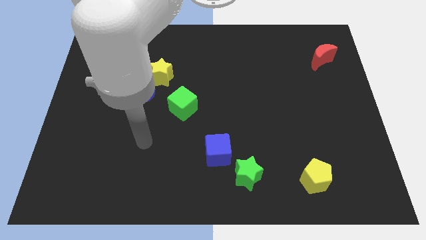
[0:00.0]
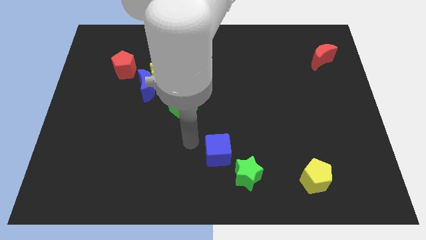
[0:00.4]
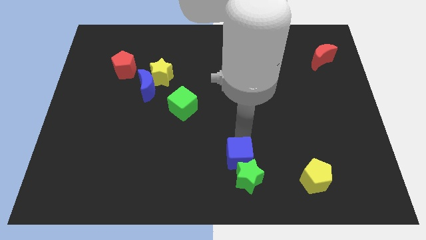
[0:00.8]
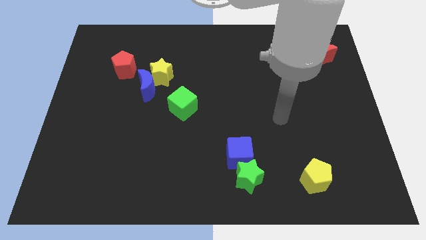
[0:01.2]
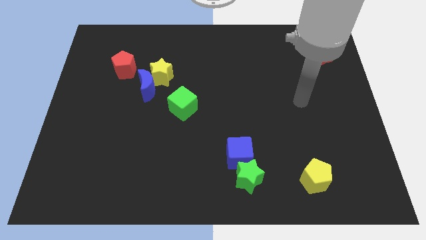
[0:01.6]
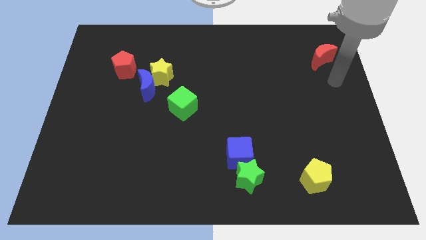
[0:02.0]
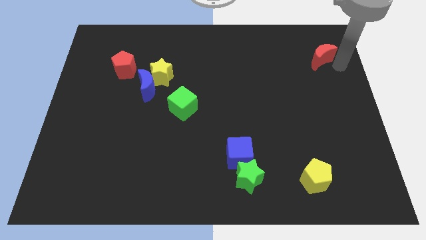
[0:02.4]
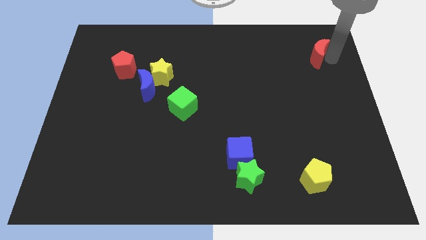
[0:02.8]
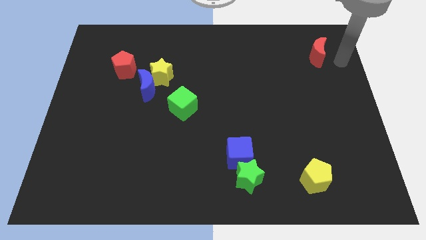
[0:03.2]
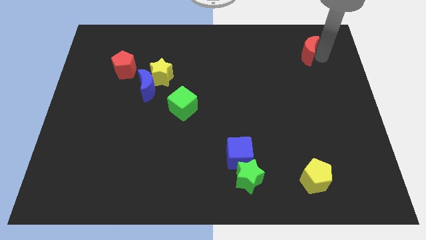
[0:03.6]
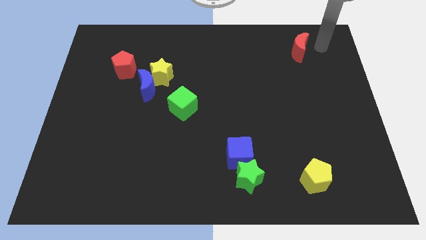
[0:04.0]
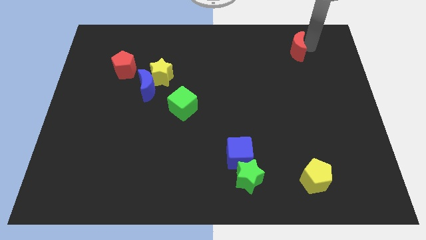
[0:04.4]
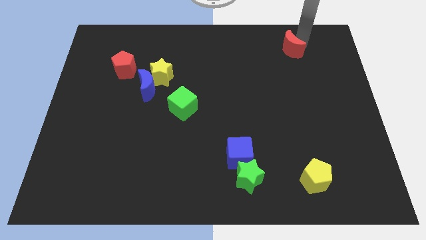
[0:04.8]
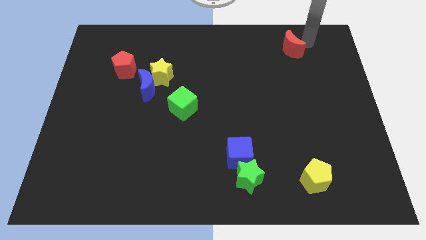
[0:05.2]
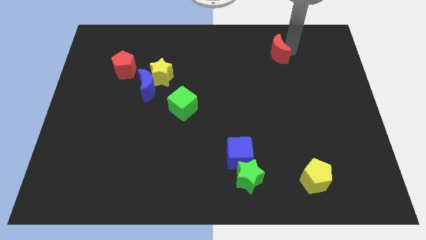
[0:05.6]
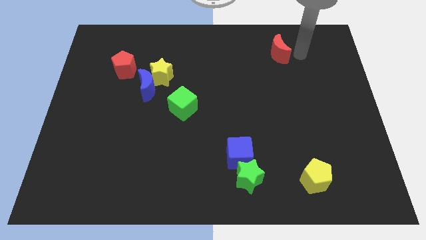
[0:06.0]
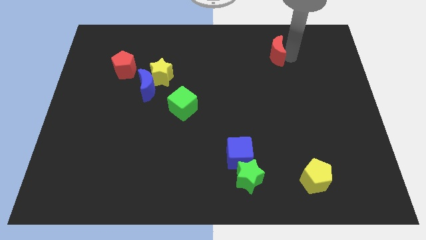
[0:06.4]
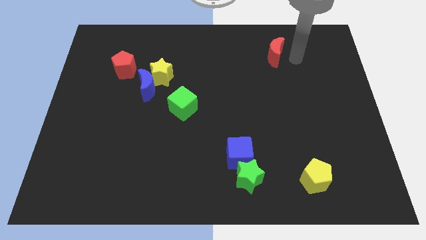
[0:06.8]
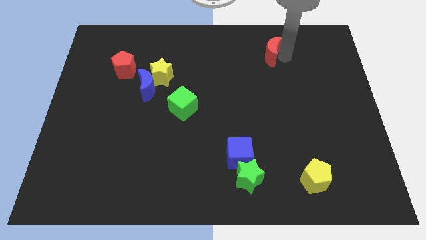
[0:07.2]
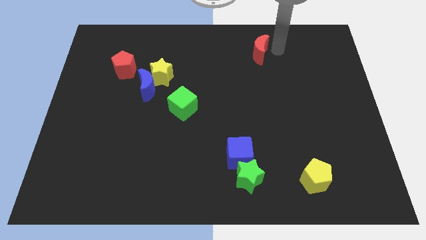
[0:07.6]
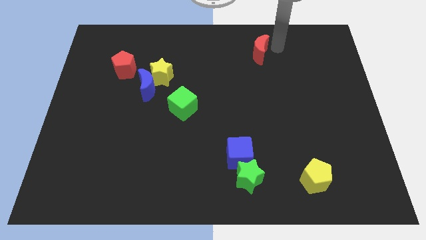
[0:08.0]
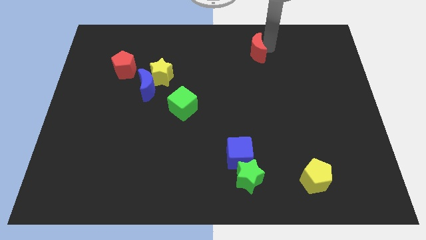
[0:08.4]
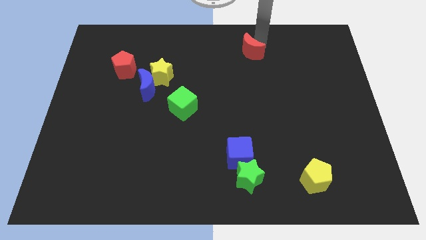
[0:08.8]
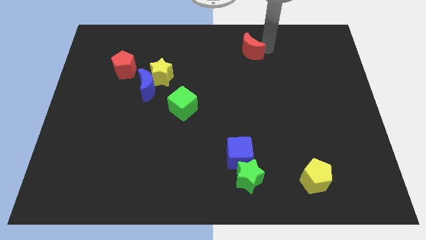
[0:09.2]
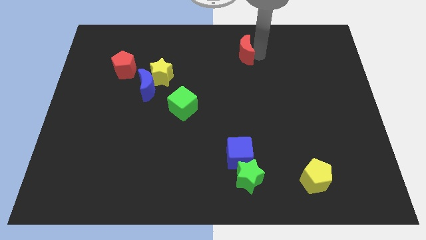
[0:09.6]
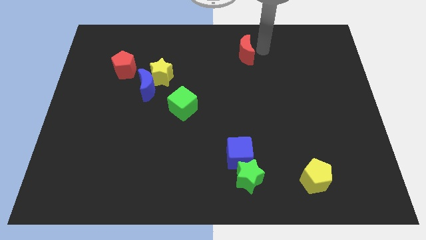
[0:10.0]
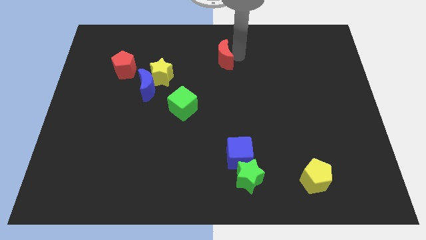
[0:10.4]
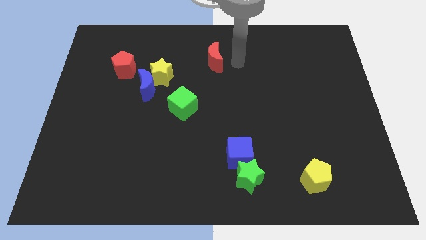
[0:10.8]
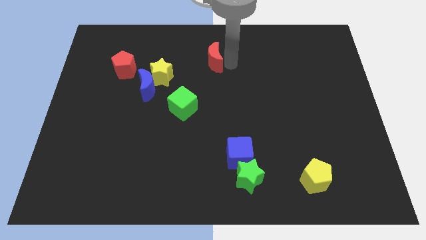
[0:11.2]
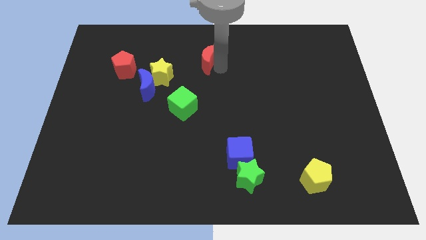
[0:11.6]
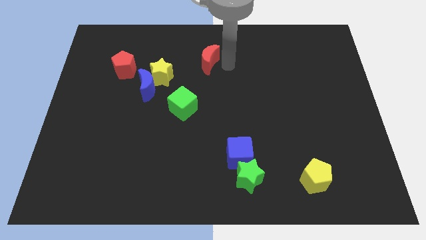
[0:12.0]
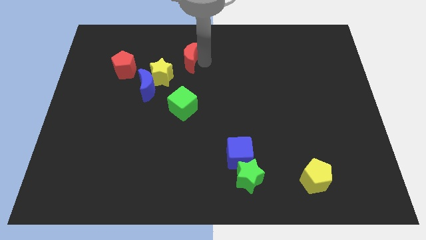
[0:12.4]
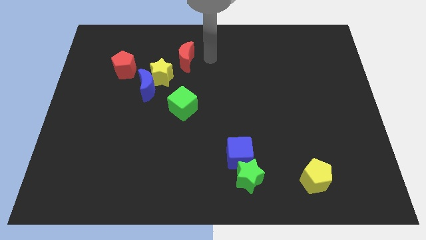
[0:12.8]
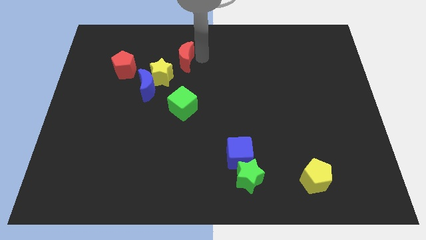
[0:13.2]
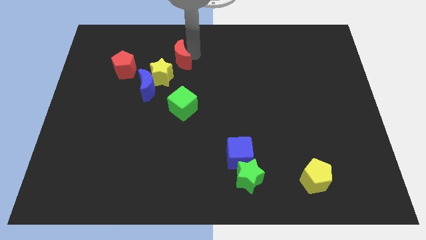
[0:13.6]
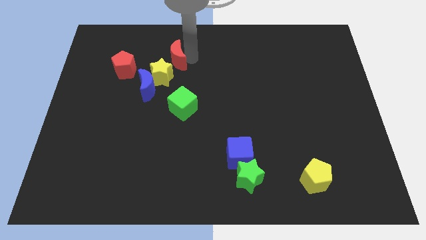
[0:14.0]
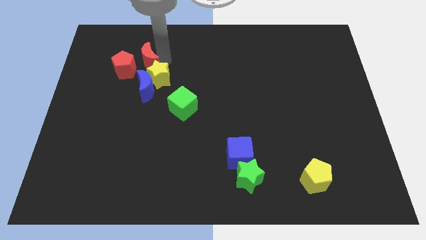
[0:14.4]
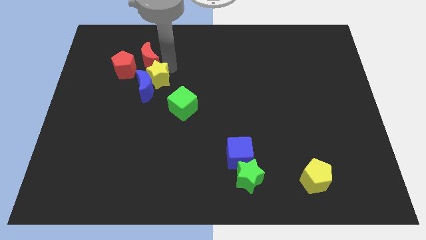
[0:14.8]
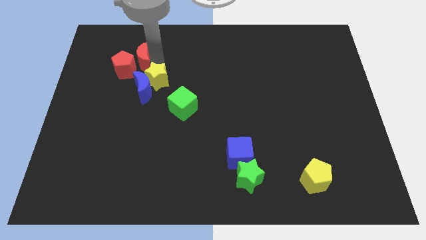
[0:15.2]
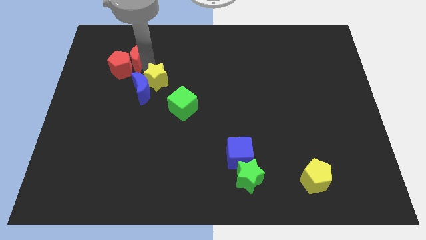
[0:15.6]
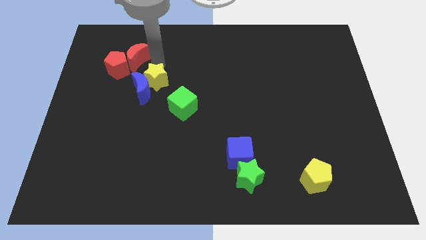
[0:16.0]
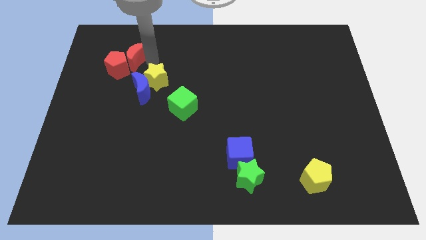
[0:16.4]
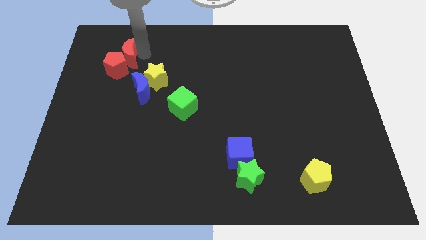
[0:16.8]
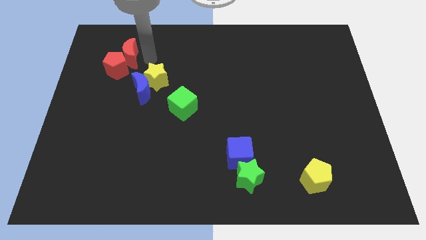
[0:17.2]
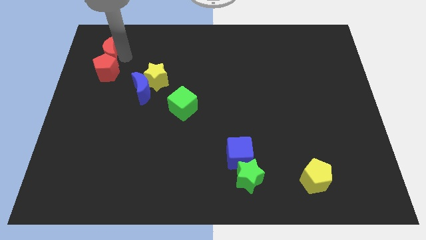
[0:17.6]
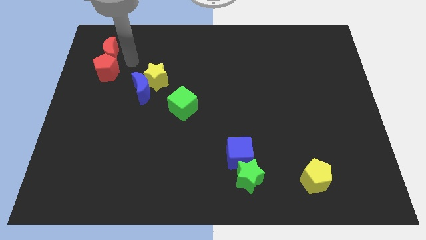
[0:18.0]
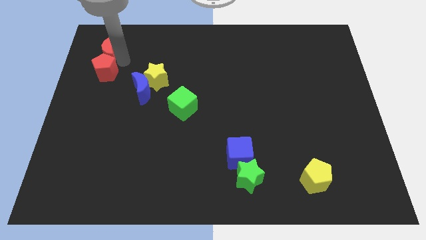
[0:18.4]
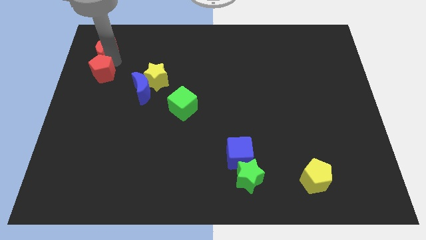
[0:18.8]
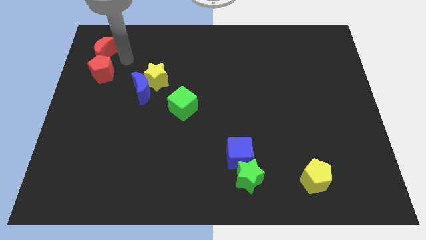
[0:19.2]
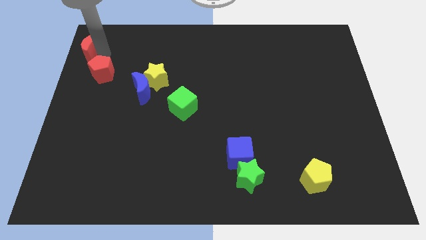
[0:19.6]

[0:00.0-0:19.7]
slide the red moon to the top left of the board

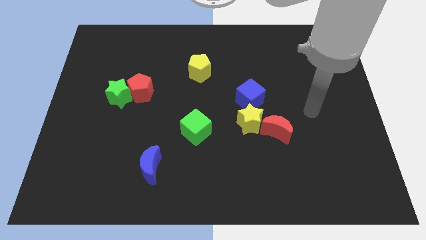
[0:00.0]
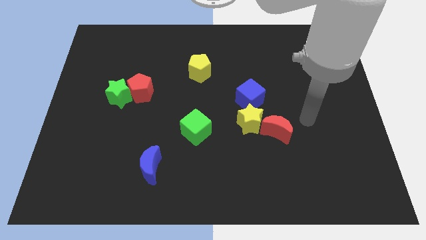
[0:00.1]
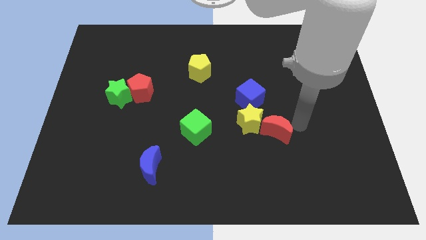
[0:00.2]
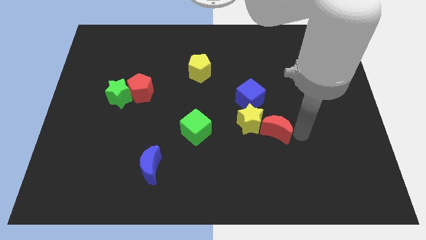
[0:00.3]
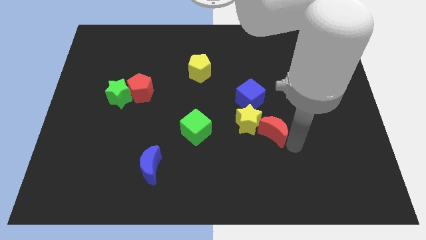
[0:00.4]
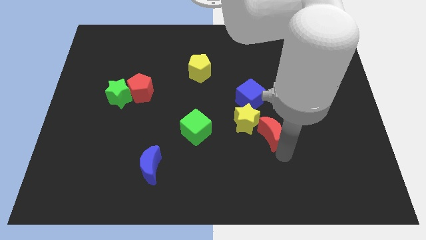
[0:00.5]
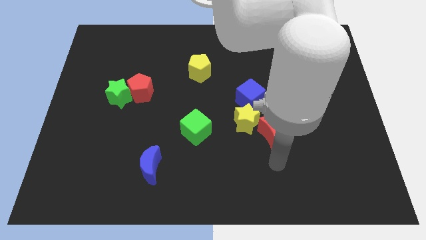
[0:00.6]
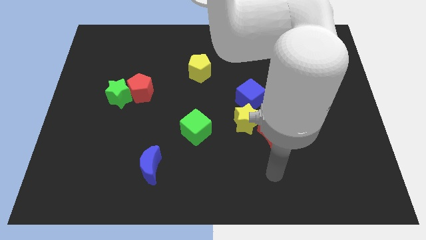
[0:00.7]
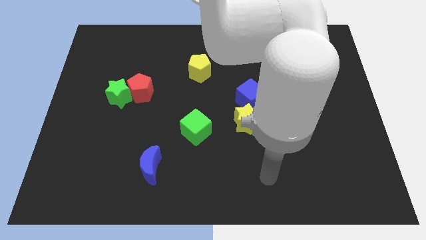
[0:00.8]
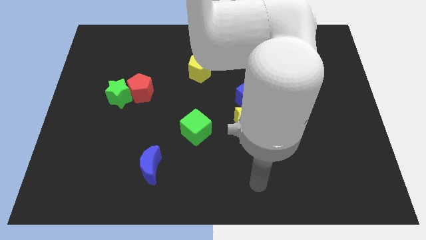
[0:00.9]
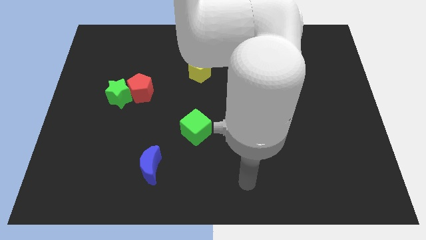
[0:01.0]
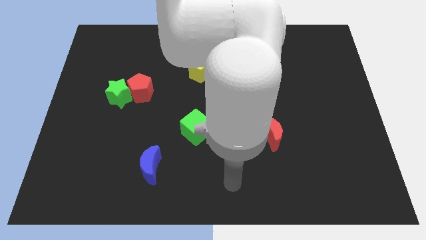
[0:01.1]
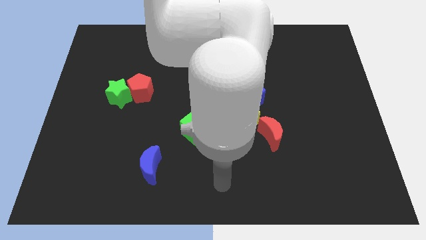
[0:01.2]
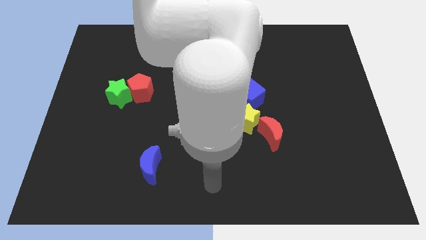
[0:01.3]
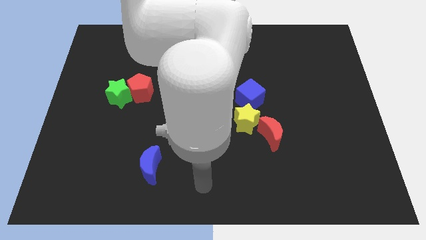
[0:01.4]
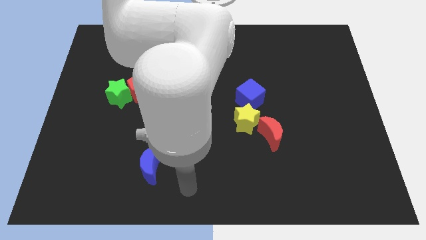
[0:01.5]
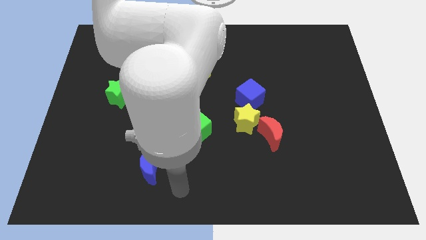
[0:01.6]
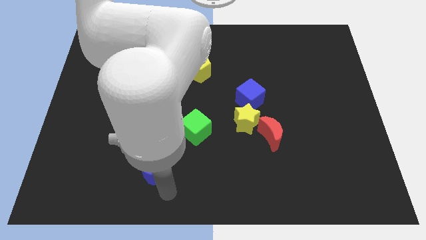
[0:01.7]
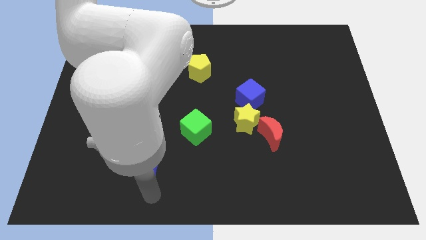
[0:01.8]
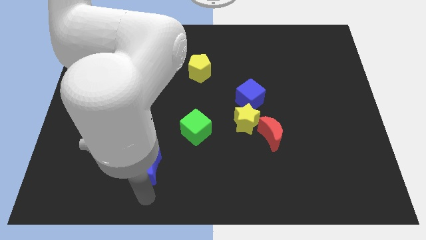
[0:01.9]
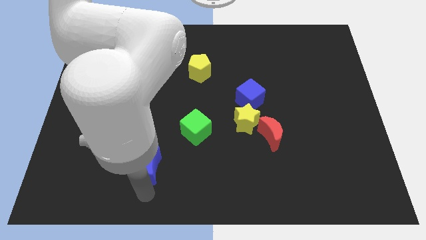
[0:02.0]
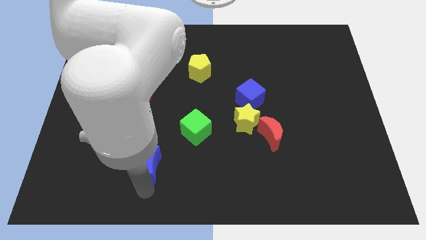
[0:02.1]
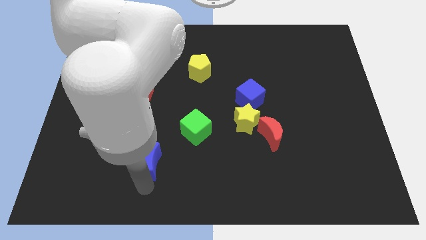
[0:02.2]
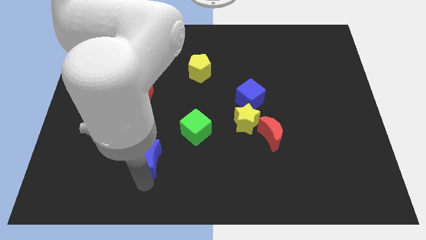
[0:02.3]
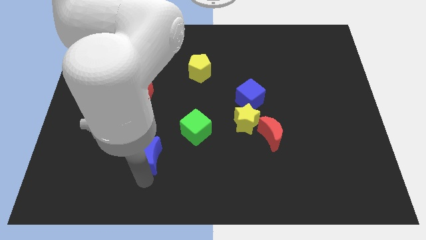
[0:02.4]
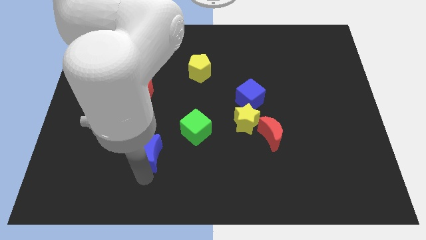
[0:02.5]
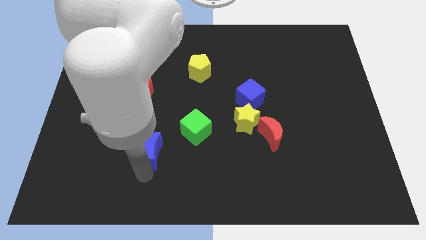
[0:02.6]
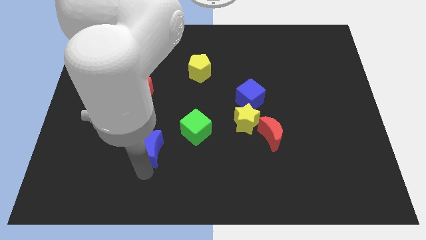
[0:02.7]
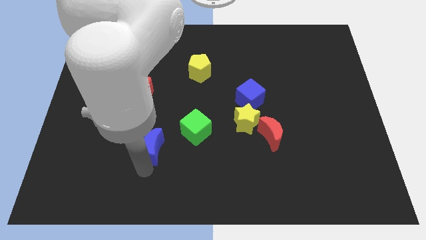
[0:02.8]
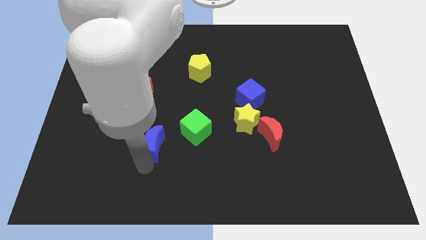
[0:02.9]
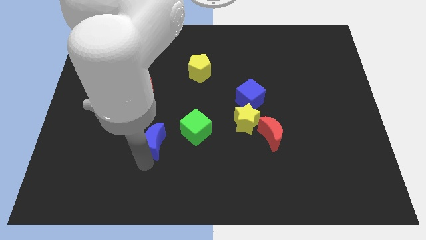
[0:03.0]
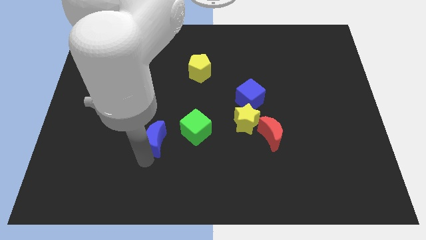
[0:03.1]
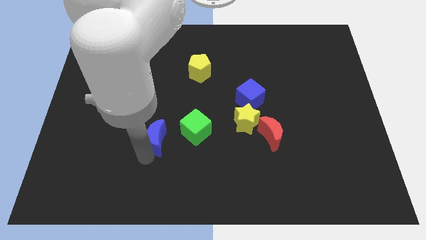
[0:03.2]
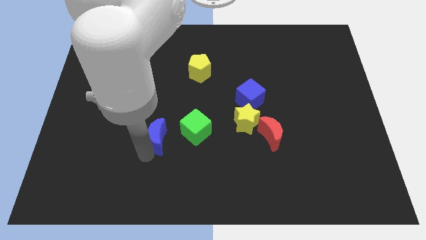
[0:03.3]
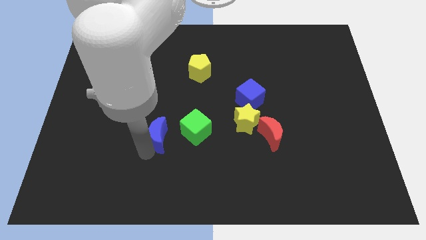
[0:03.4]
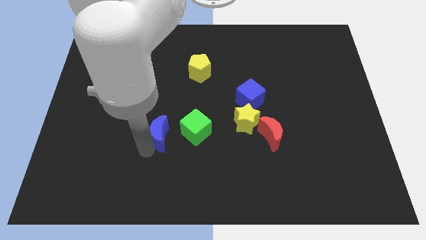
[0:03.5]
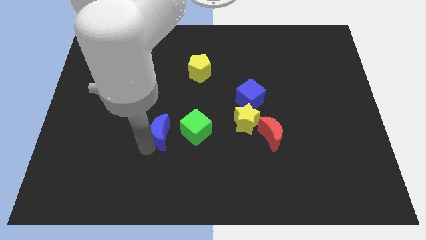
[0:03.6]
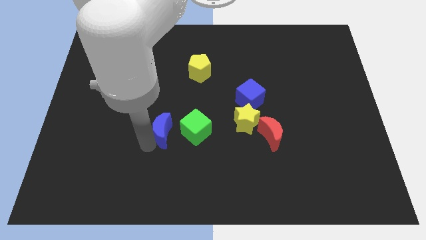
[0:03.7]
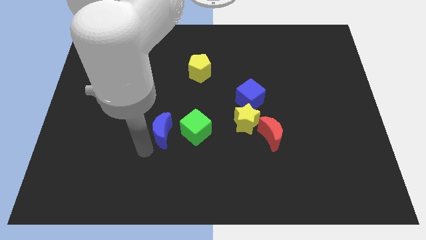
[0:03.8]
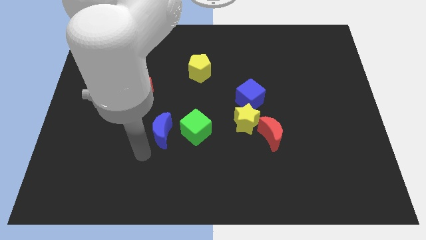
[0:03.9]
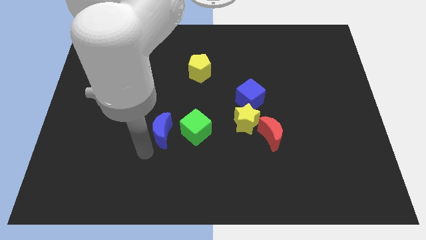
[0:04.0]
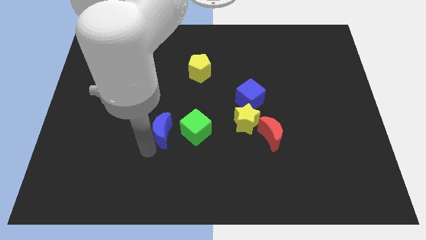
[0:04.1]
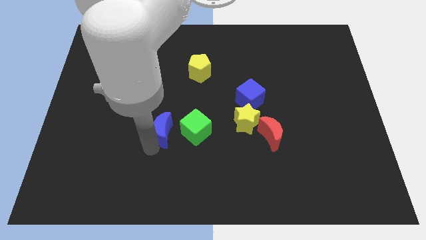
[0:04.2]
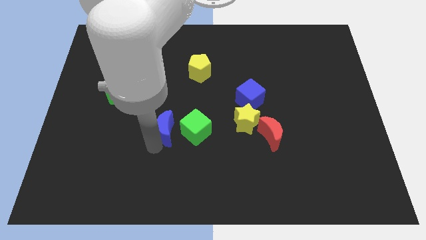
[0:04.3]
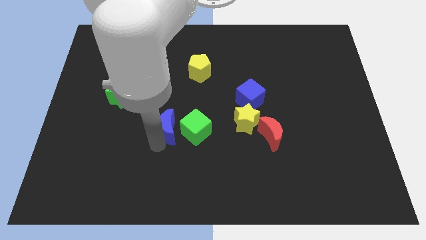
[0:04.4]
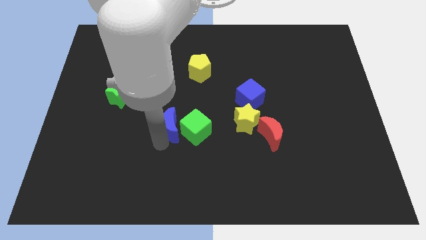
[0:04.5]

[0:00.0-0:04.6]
move the blue moon to the center
